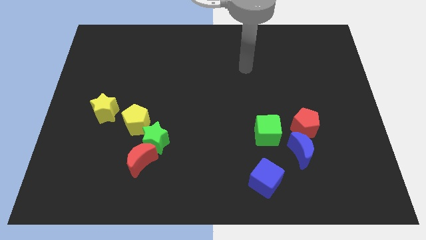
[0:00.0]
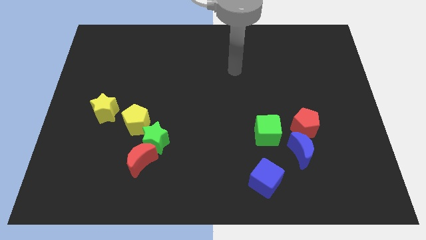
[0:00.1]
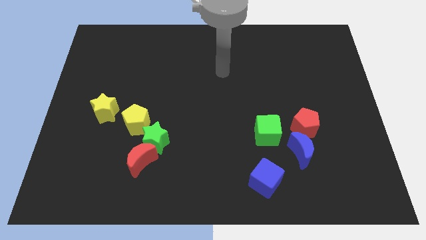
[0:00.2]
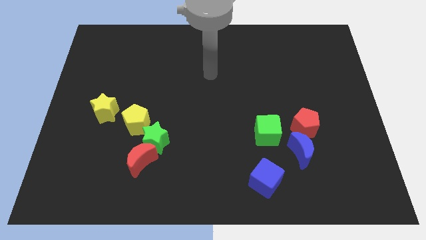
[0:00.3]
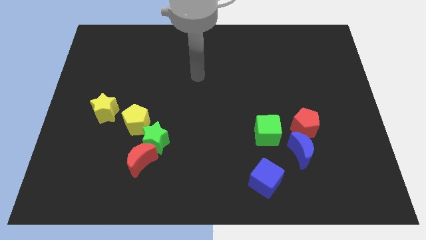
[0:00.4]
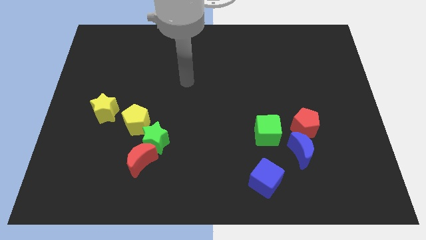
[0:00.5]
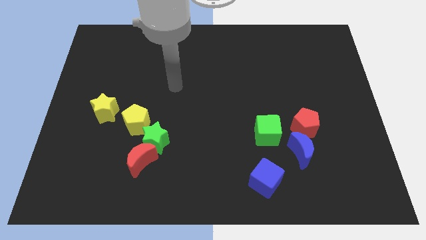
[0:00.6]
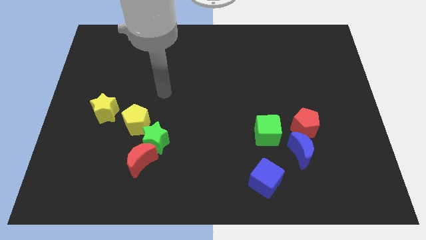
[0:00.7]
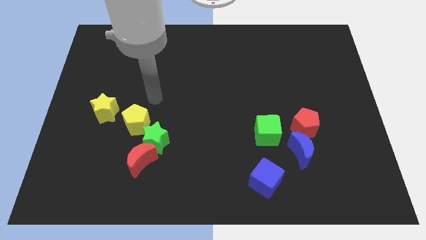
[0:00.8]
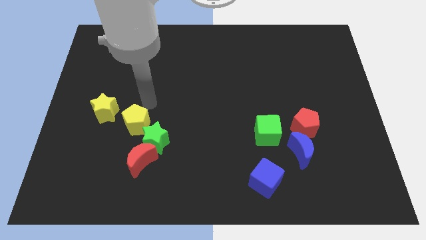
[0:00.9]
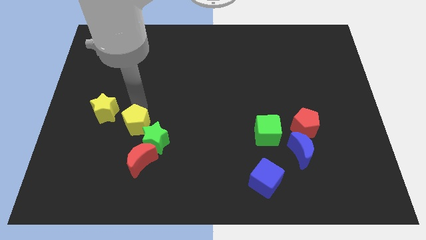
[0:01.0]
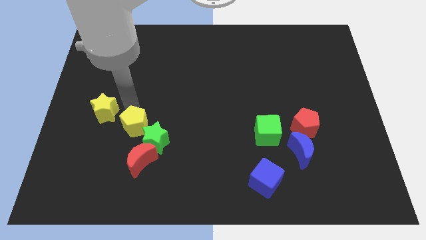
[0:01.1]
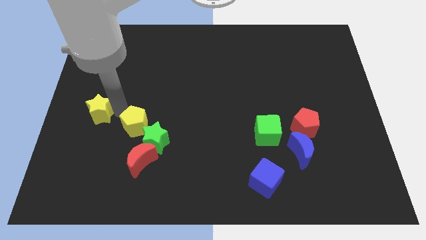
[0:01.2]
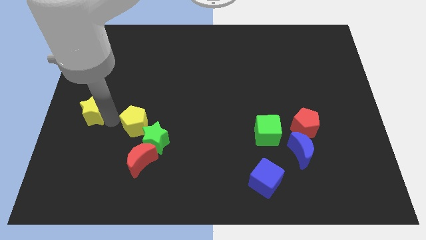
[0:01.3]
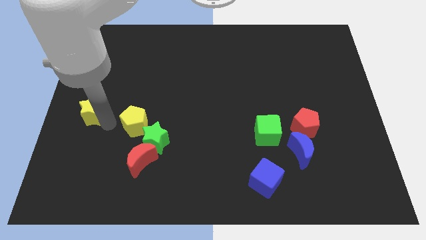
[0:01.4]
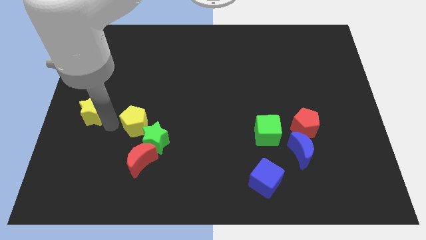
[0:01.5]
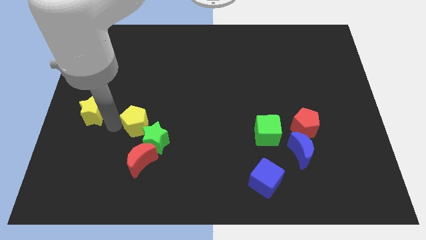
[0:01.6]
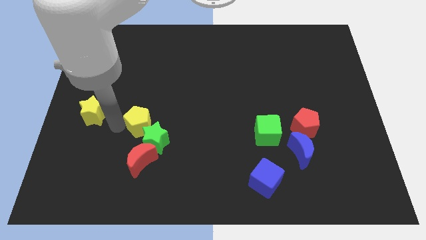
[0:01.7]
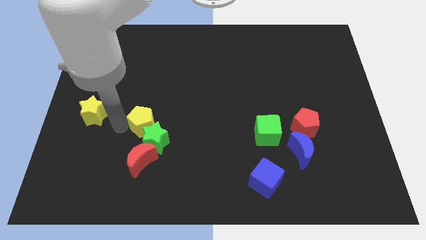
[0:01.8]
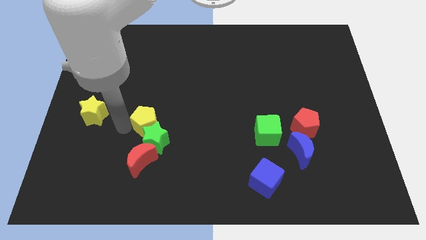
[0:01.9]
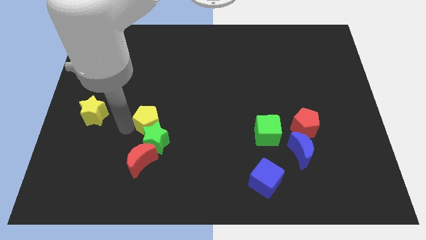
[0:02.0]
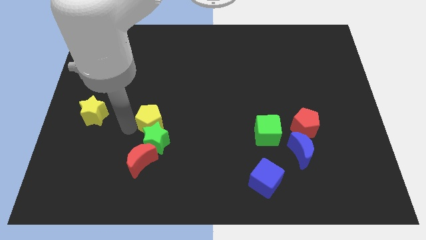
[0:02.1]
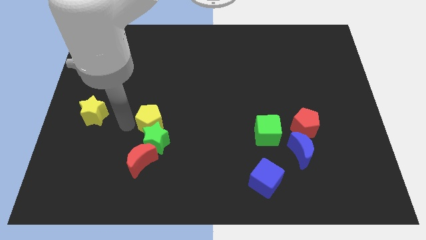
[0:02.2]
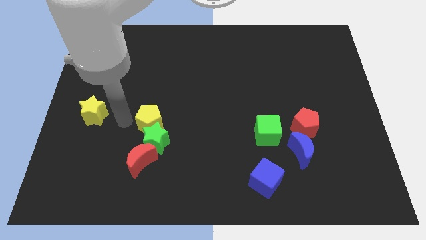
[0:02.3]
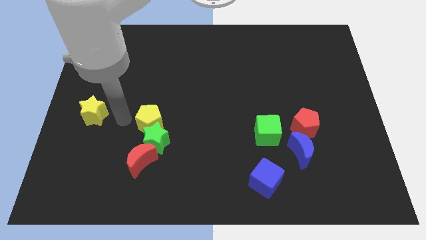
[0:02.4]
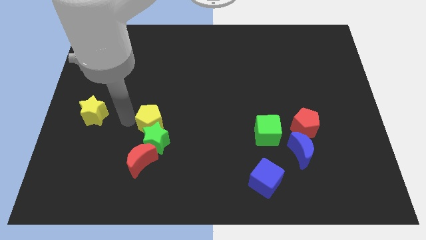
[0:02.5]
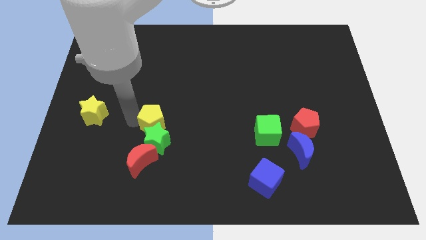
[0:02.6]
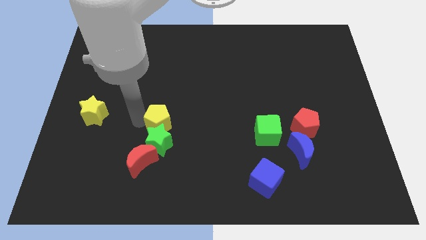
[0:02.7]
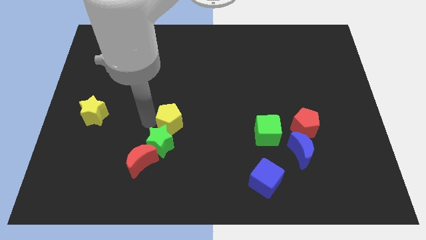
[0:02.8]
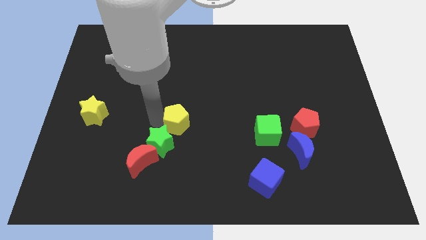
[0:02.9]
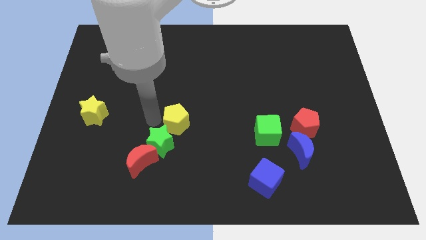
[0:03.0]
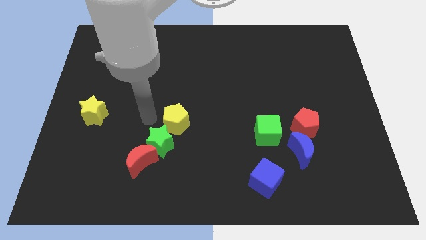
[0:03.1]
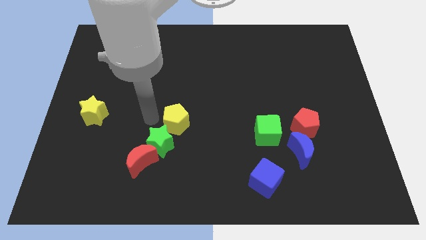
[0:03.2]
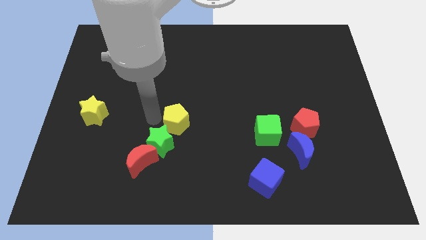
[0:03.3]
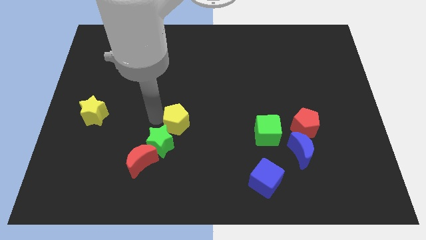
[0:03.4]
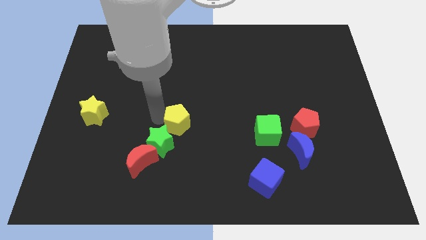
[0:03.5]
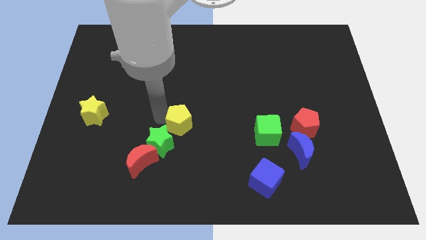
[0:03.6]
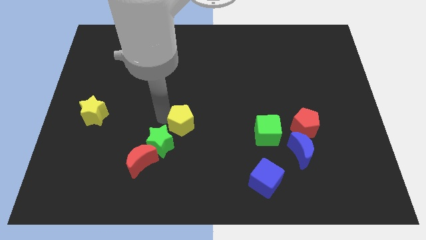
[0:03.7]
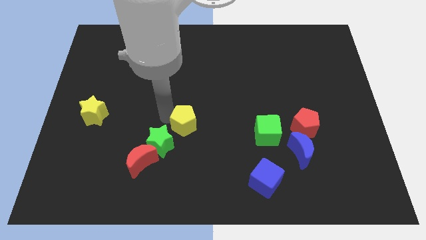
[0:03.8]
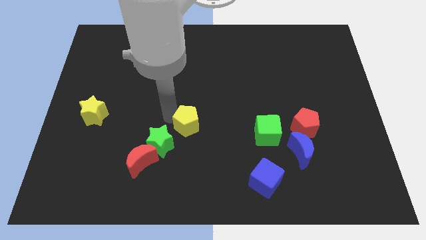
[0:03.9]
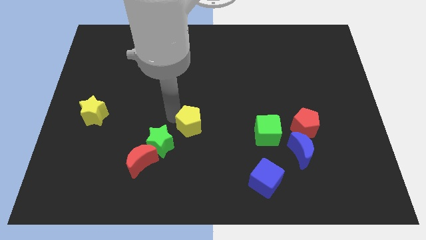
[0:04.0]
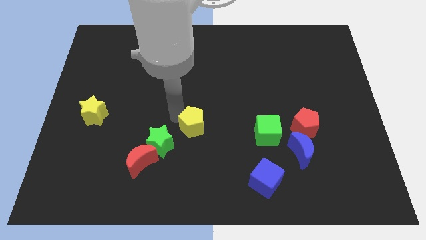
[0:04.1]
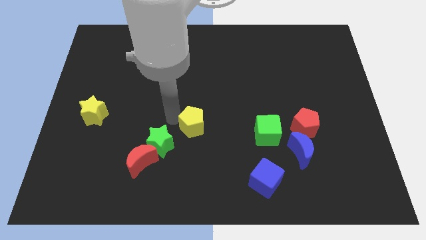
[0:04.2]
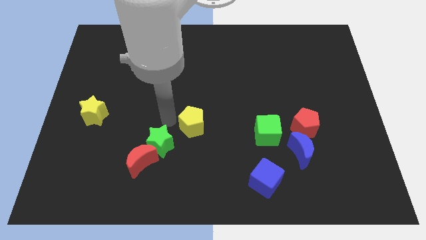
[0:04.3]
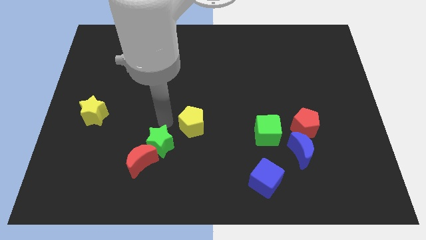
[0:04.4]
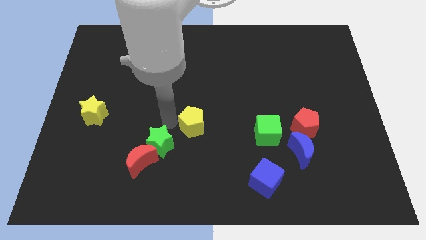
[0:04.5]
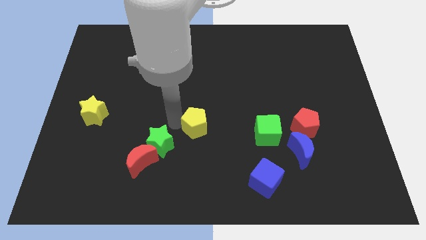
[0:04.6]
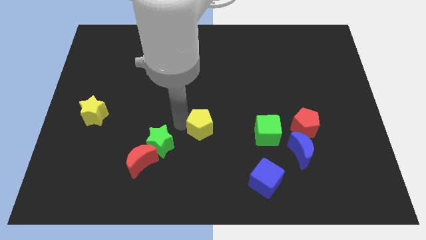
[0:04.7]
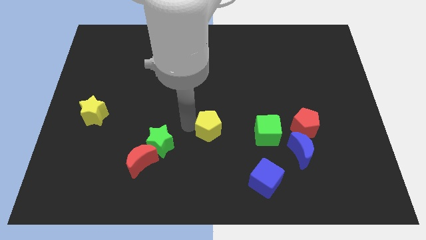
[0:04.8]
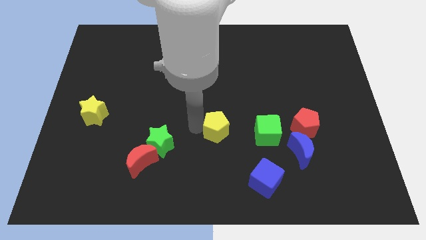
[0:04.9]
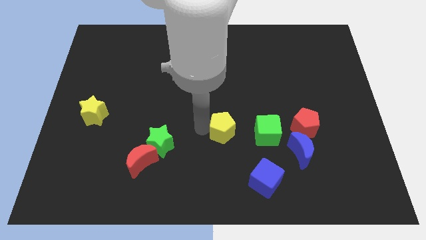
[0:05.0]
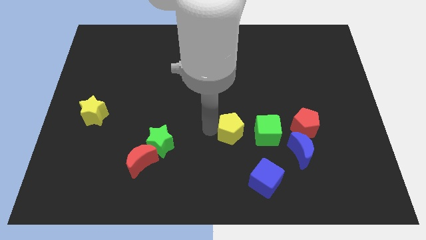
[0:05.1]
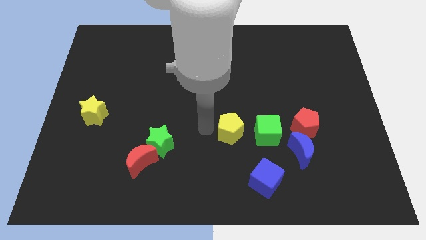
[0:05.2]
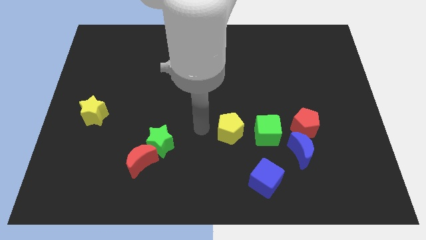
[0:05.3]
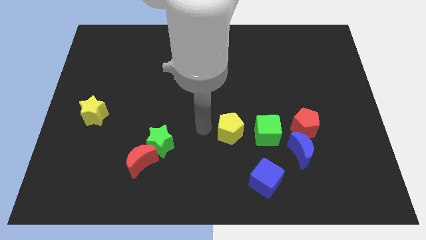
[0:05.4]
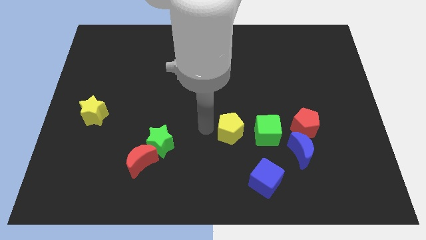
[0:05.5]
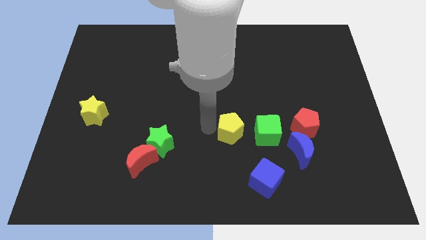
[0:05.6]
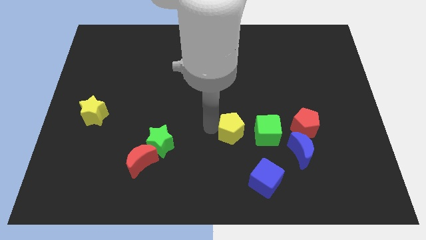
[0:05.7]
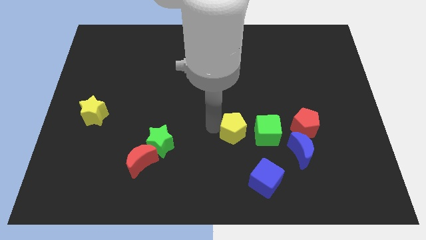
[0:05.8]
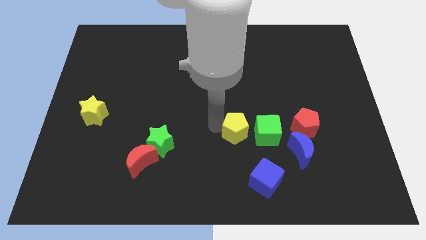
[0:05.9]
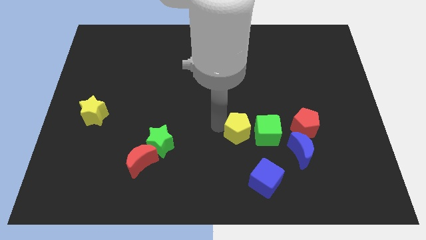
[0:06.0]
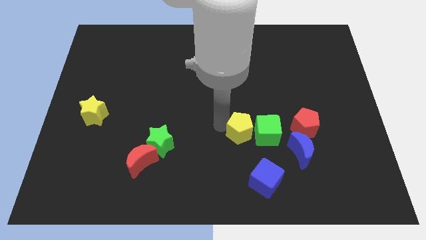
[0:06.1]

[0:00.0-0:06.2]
push the yellow pentagon next to the green cube

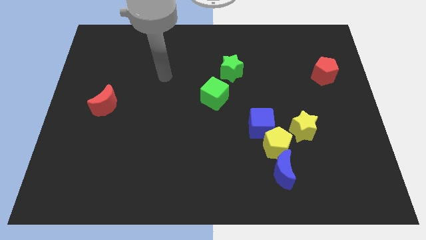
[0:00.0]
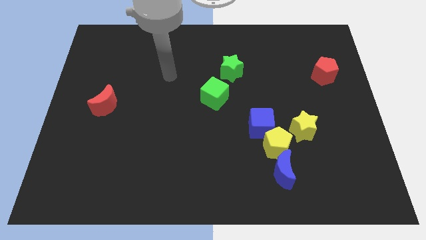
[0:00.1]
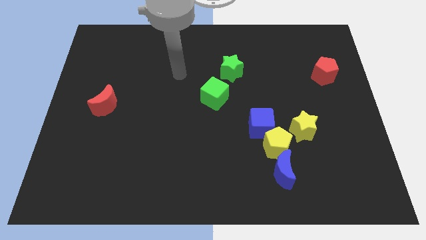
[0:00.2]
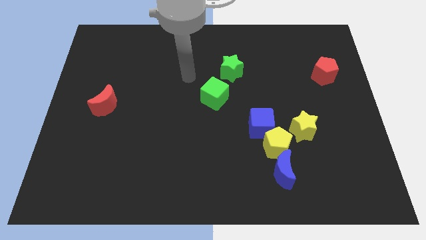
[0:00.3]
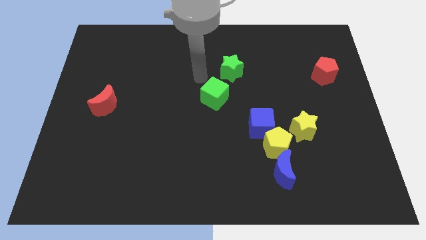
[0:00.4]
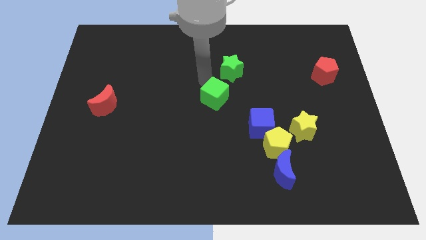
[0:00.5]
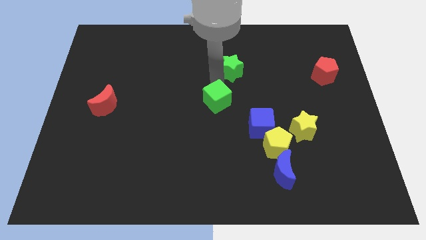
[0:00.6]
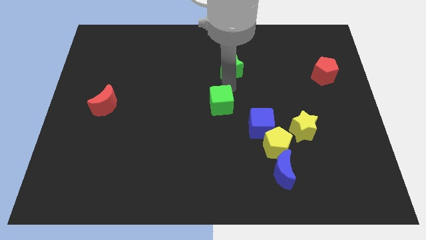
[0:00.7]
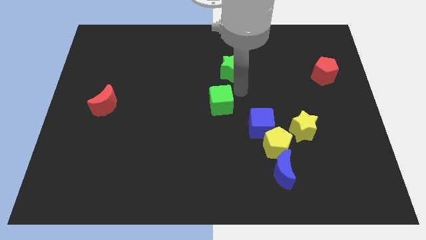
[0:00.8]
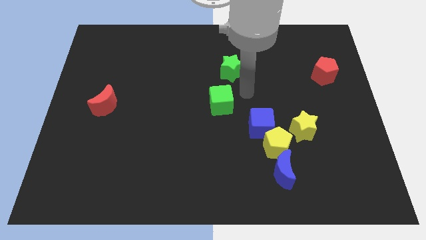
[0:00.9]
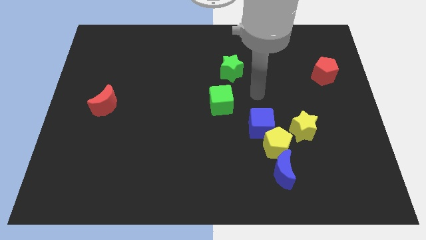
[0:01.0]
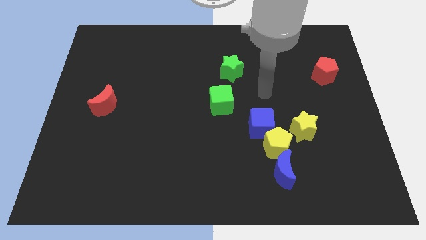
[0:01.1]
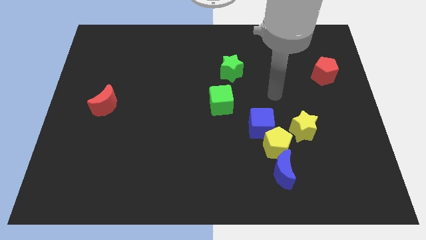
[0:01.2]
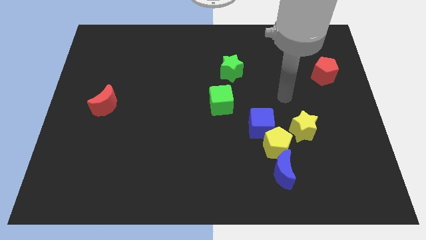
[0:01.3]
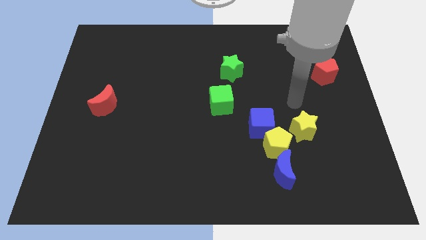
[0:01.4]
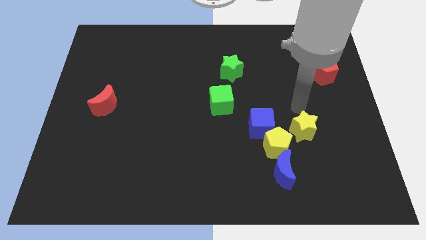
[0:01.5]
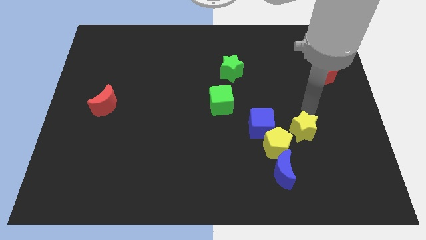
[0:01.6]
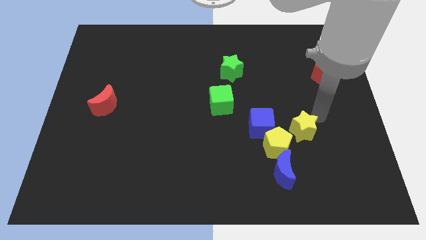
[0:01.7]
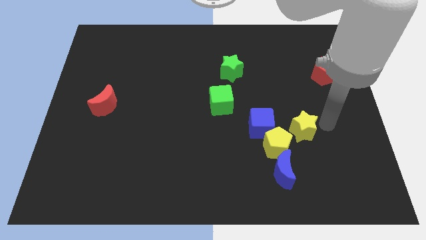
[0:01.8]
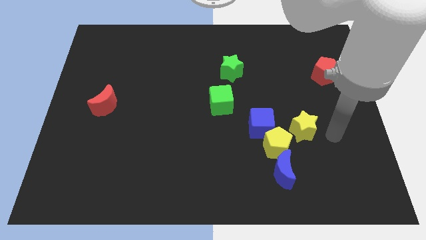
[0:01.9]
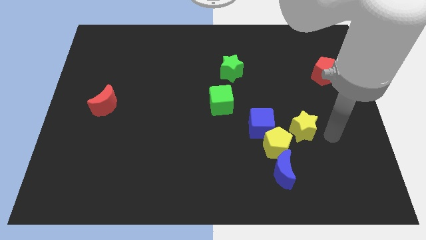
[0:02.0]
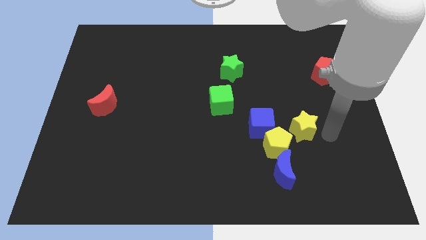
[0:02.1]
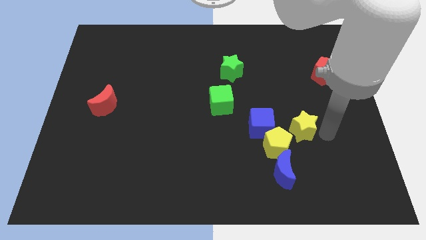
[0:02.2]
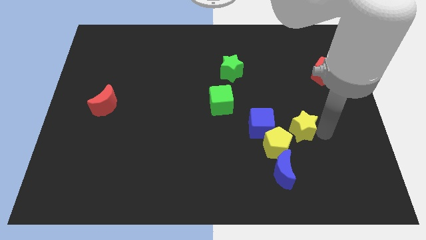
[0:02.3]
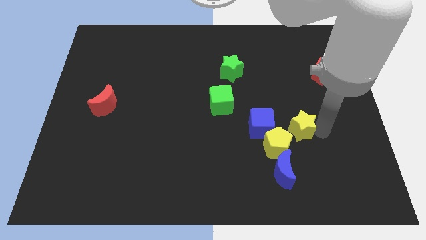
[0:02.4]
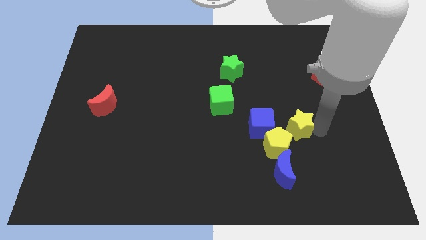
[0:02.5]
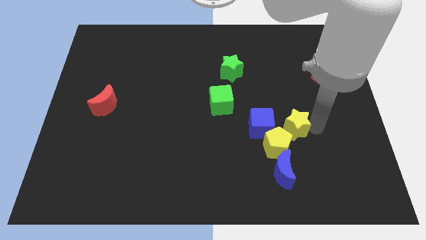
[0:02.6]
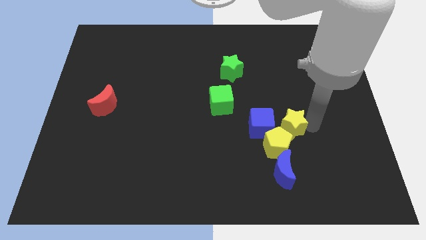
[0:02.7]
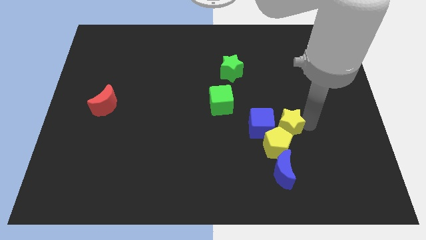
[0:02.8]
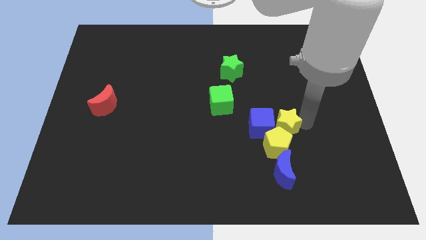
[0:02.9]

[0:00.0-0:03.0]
push the yellow star next to the blue cube
